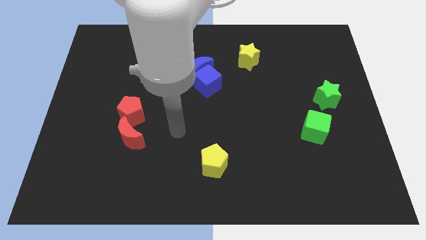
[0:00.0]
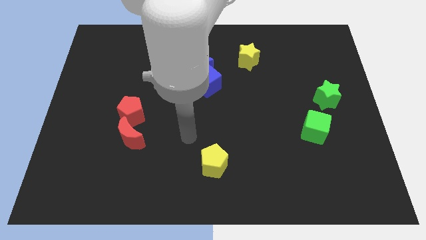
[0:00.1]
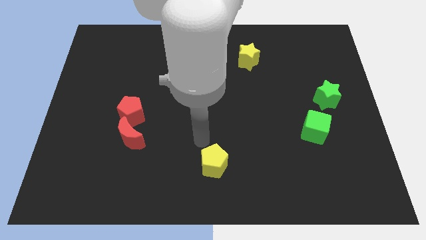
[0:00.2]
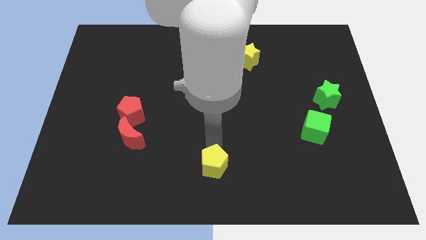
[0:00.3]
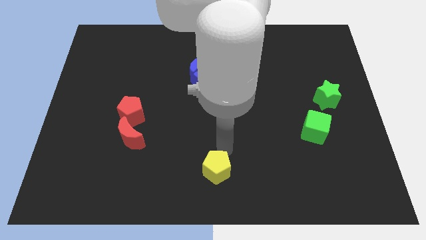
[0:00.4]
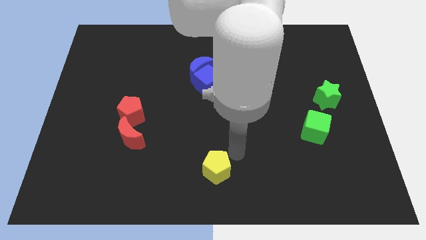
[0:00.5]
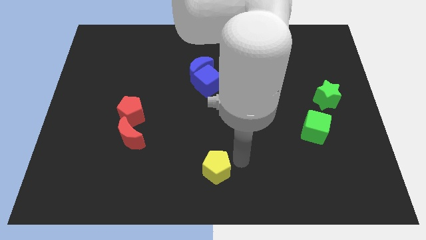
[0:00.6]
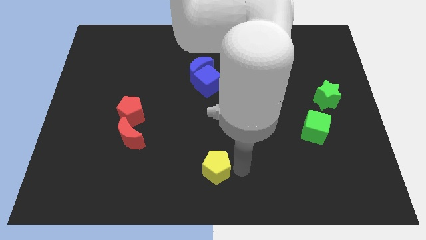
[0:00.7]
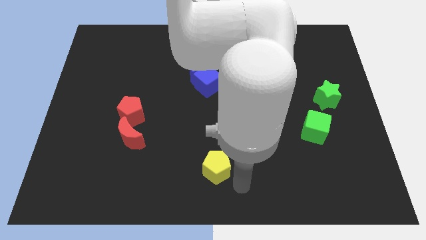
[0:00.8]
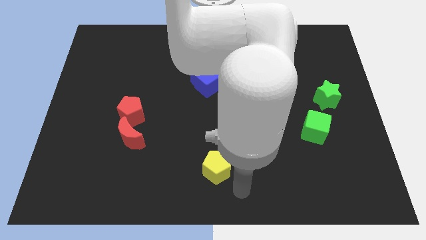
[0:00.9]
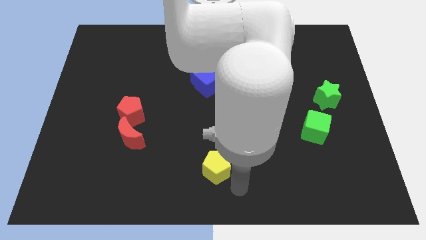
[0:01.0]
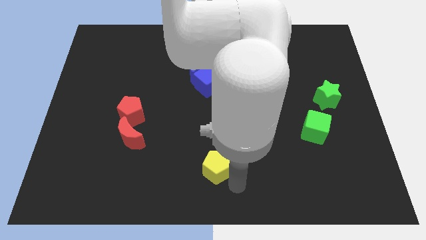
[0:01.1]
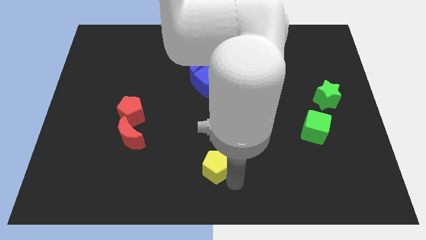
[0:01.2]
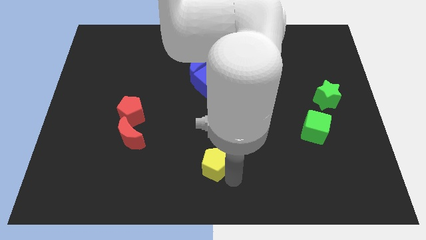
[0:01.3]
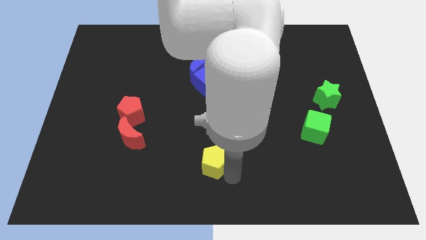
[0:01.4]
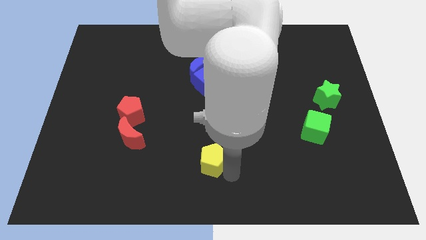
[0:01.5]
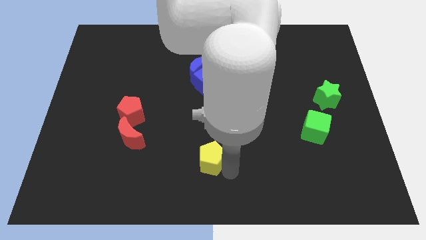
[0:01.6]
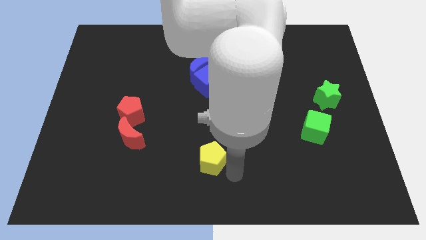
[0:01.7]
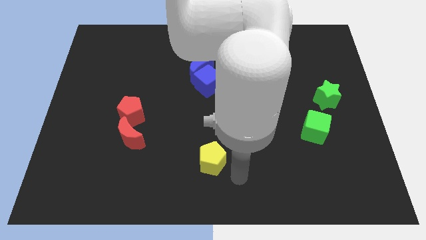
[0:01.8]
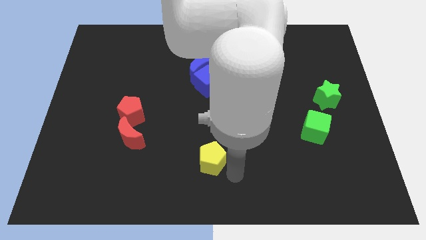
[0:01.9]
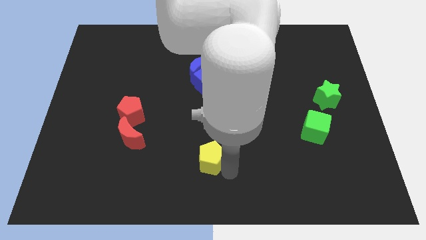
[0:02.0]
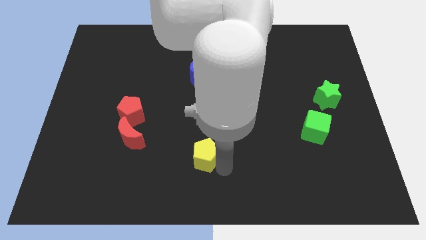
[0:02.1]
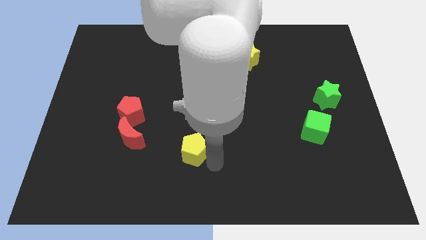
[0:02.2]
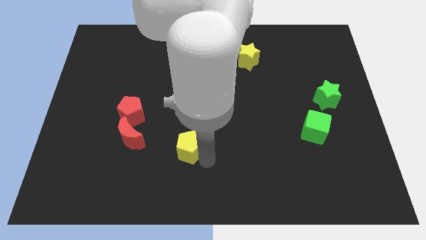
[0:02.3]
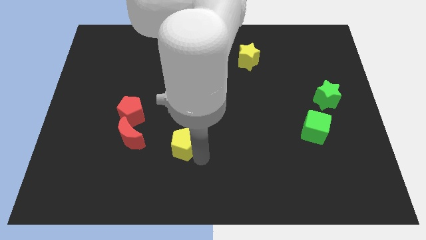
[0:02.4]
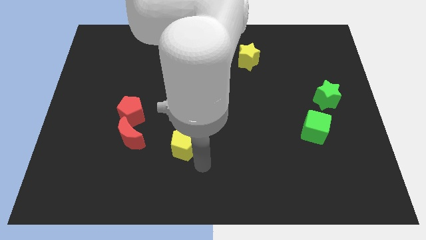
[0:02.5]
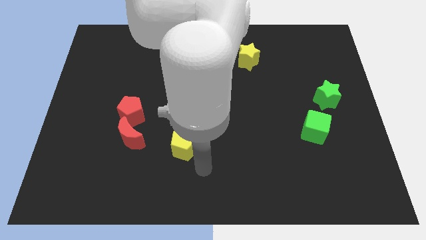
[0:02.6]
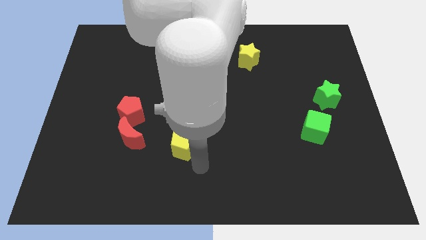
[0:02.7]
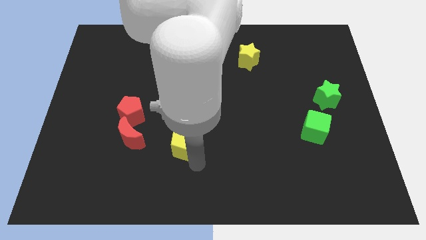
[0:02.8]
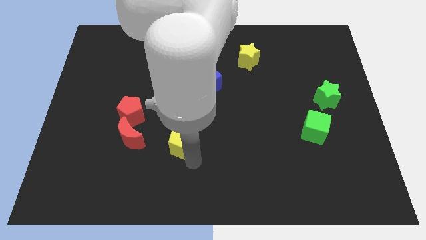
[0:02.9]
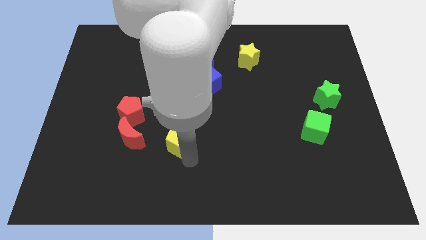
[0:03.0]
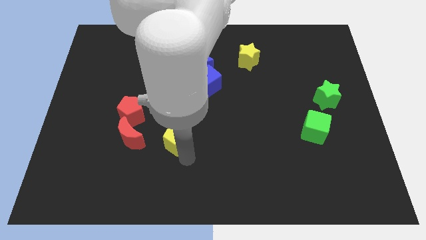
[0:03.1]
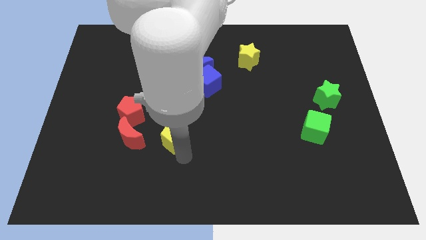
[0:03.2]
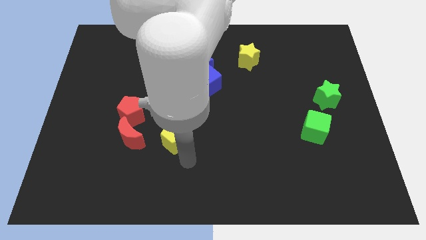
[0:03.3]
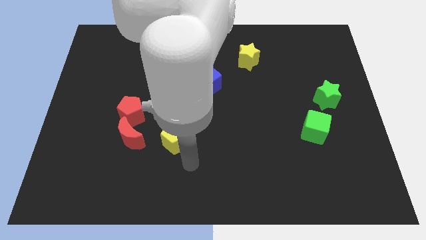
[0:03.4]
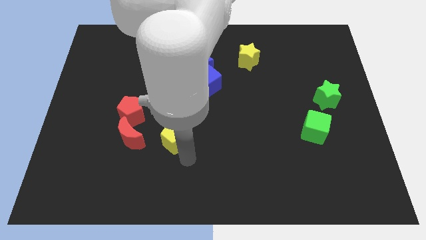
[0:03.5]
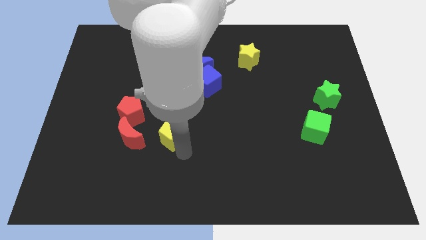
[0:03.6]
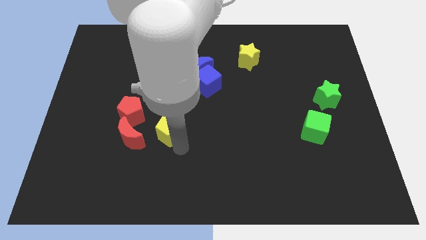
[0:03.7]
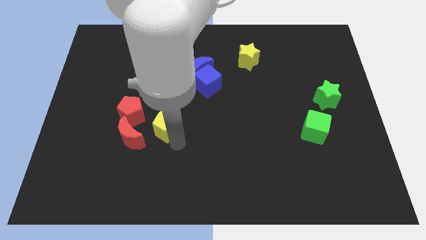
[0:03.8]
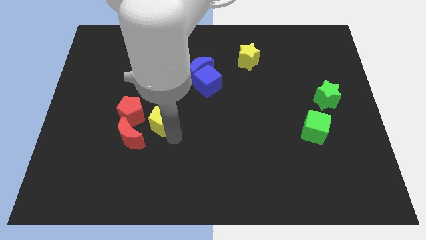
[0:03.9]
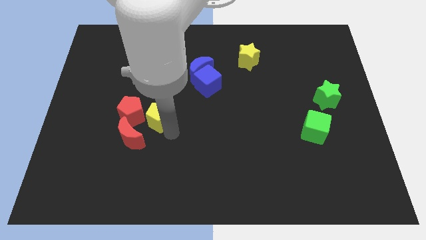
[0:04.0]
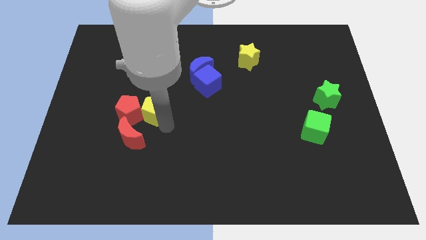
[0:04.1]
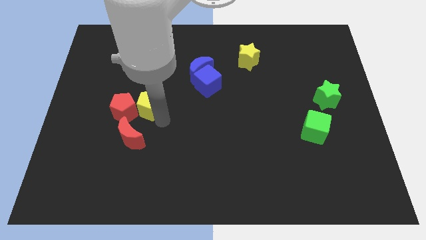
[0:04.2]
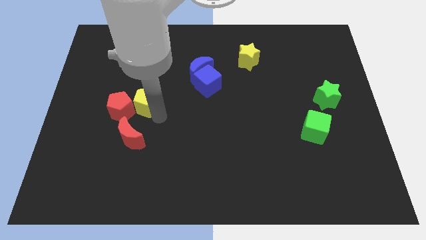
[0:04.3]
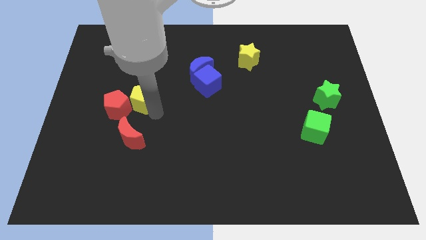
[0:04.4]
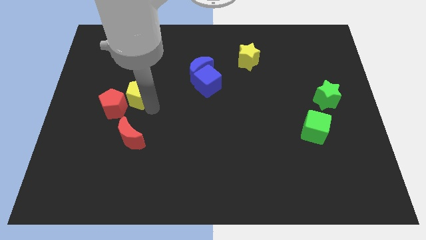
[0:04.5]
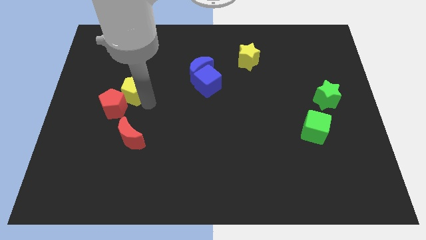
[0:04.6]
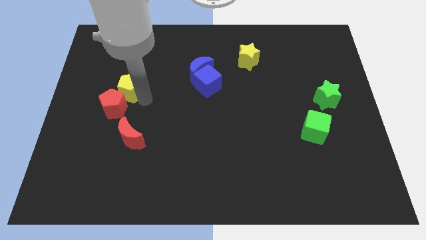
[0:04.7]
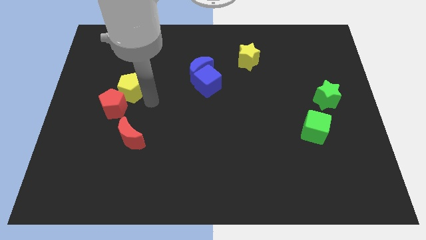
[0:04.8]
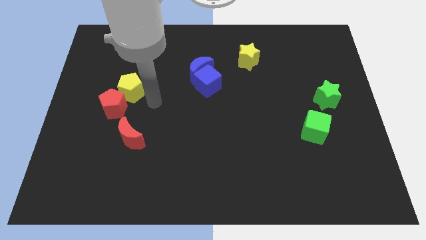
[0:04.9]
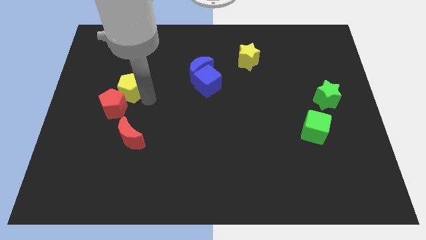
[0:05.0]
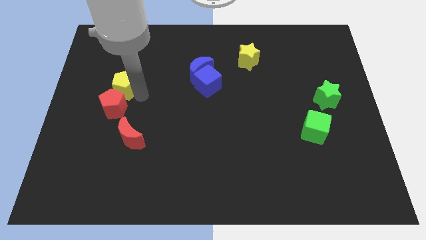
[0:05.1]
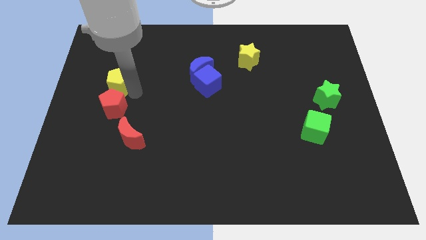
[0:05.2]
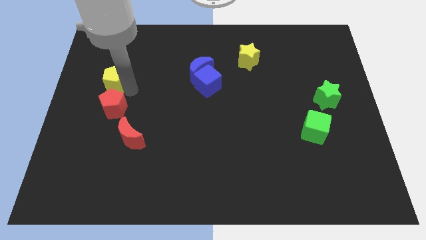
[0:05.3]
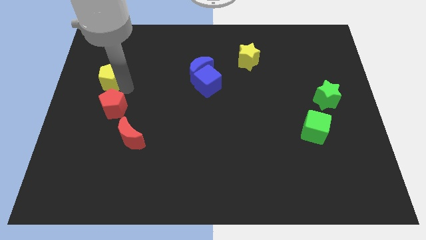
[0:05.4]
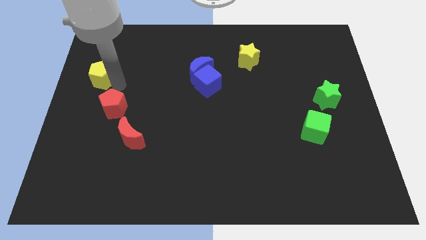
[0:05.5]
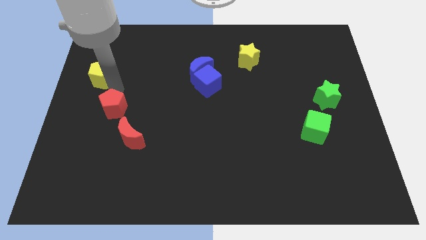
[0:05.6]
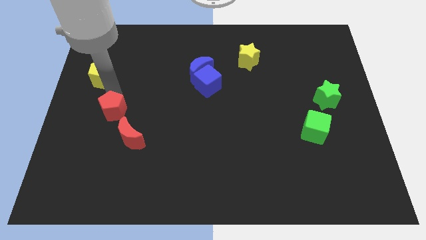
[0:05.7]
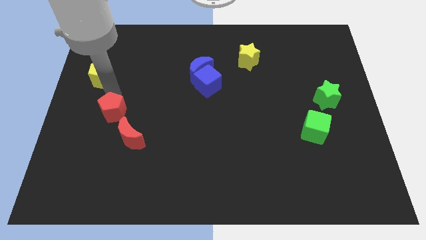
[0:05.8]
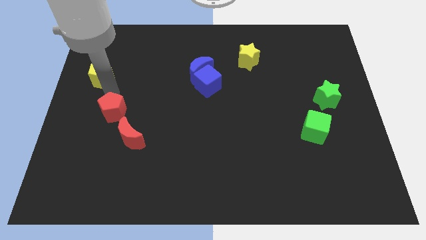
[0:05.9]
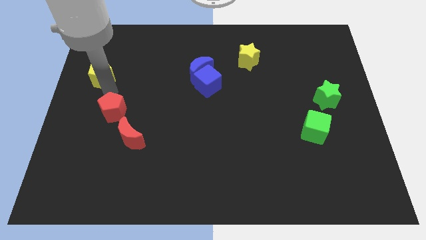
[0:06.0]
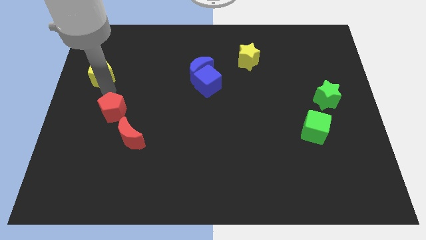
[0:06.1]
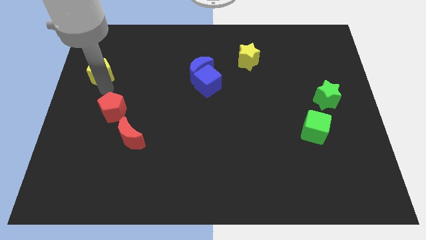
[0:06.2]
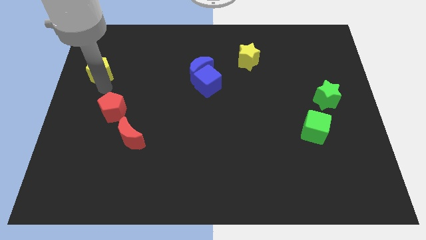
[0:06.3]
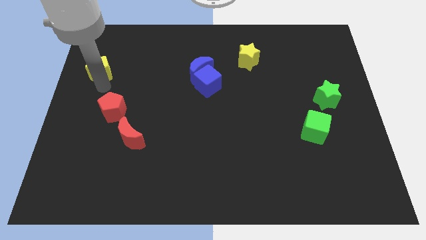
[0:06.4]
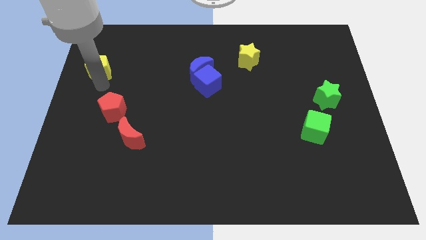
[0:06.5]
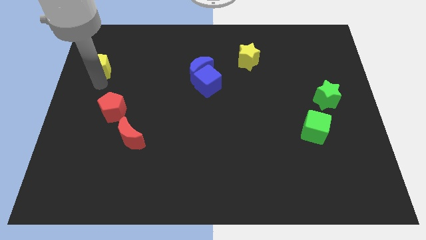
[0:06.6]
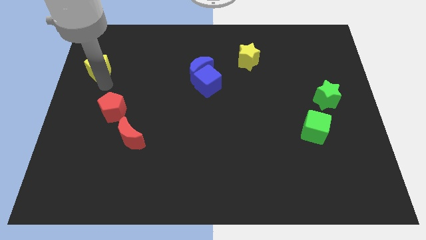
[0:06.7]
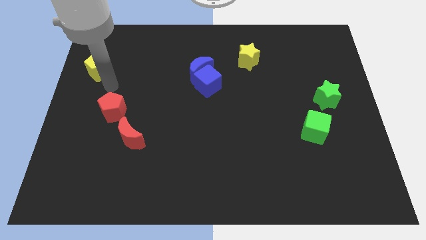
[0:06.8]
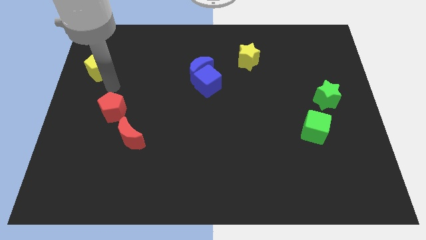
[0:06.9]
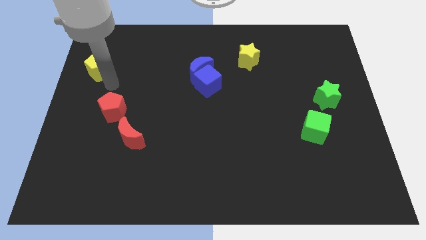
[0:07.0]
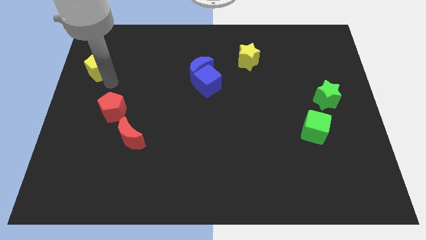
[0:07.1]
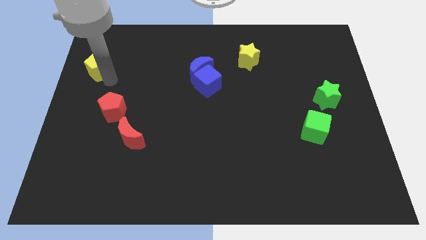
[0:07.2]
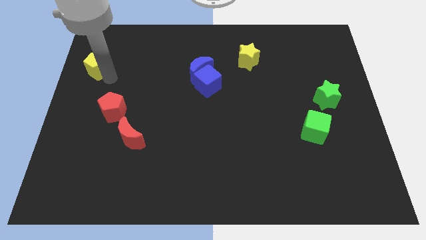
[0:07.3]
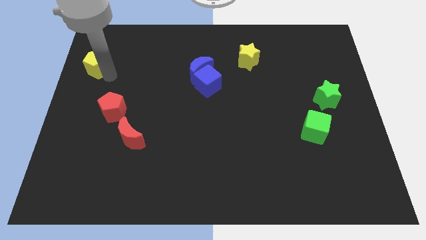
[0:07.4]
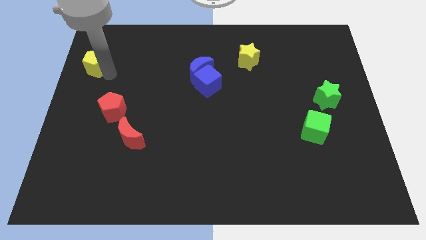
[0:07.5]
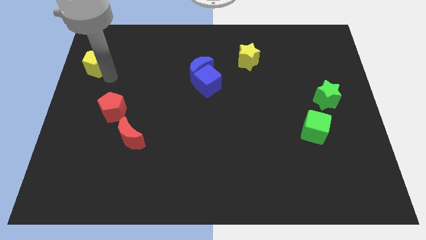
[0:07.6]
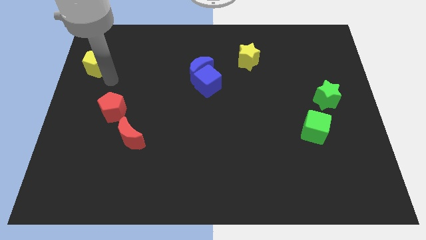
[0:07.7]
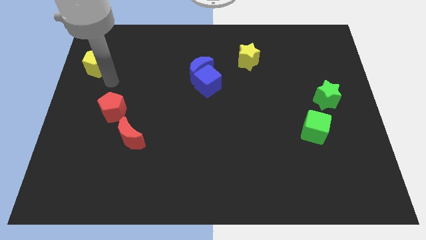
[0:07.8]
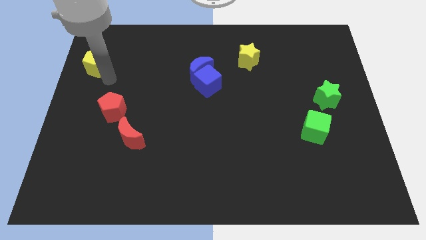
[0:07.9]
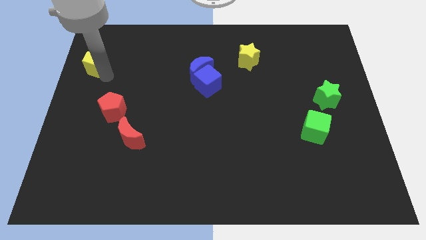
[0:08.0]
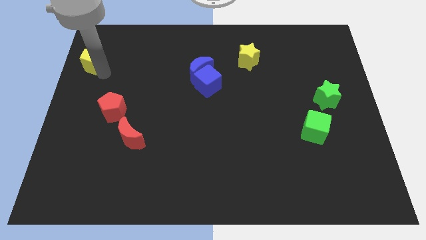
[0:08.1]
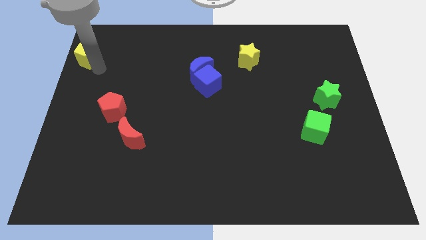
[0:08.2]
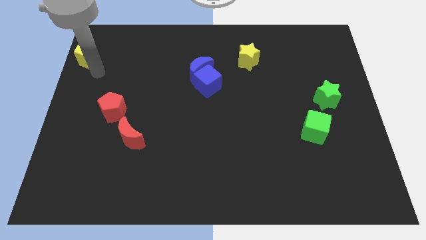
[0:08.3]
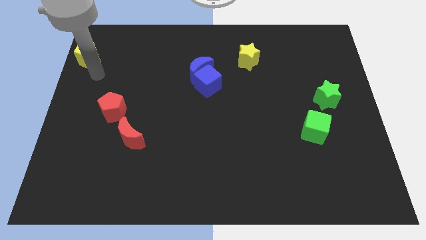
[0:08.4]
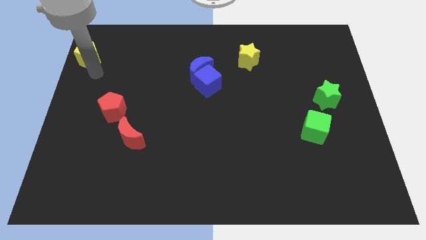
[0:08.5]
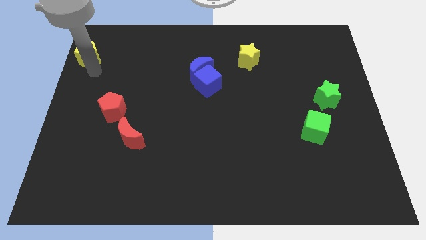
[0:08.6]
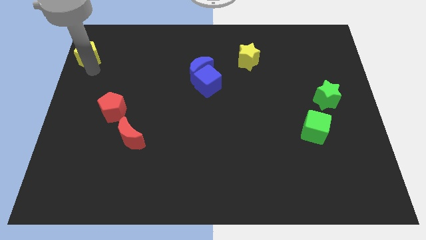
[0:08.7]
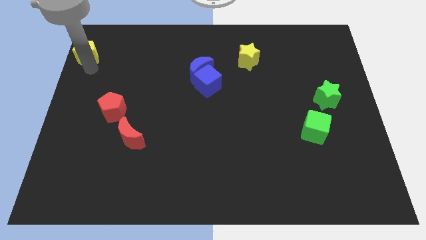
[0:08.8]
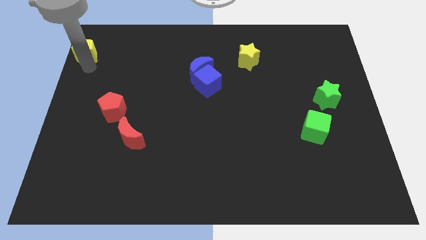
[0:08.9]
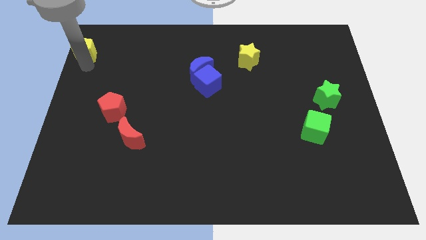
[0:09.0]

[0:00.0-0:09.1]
push the yellow pentagon to the top left
